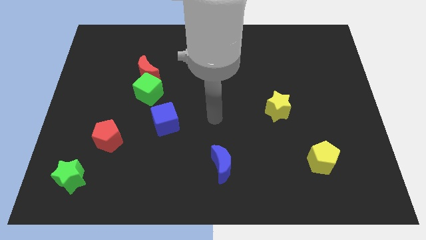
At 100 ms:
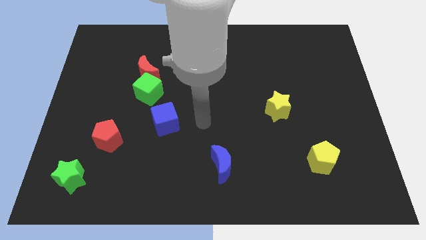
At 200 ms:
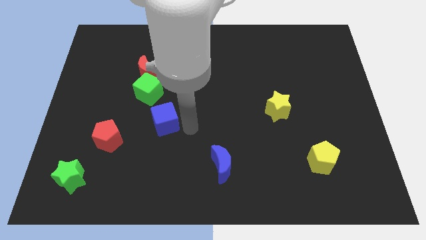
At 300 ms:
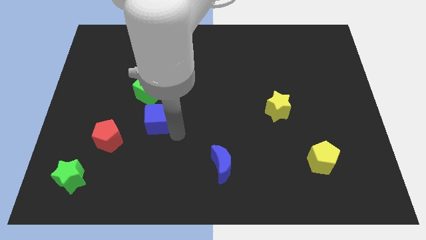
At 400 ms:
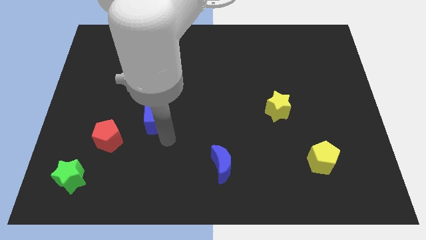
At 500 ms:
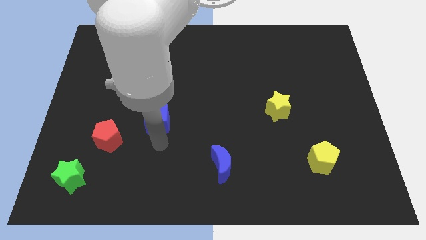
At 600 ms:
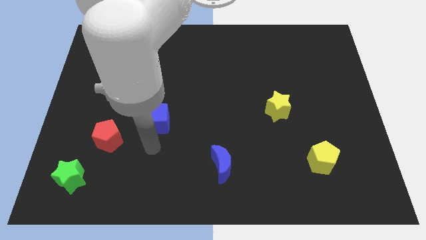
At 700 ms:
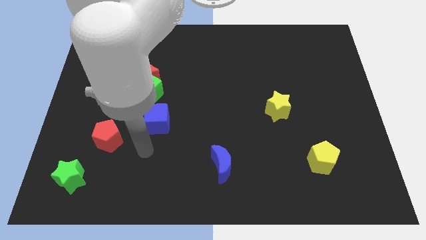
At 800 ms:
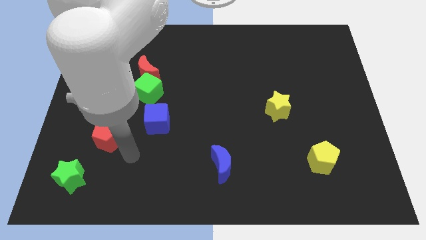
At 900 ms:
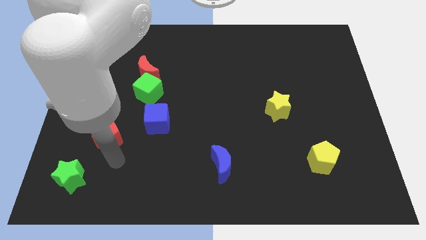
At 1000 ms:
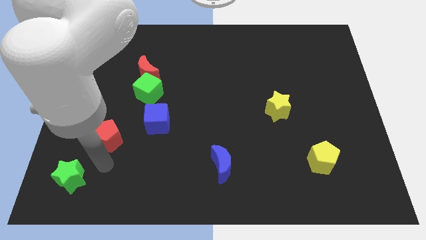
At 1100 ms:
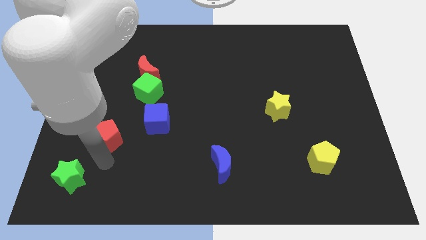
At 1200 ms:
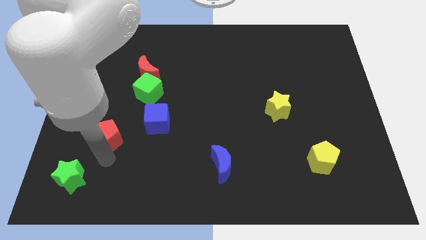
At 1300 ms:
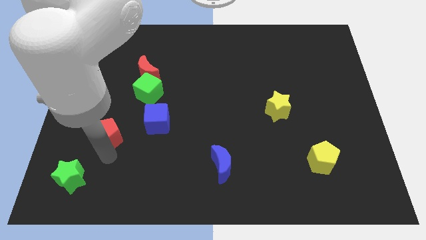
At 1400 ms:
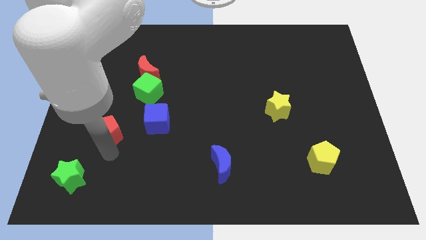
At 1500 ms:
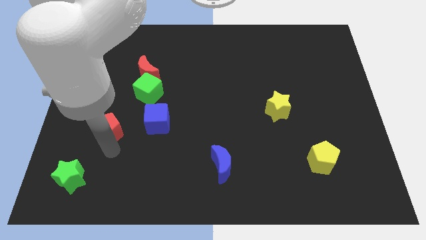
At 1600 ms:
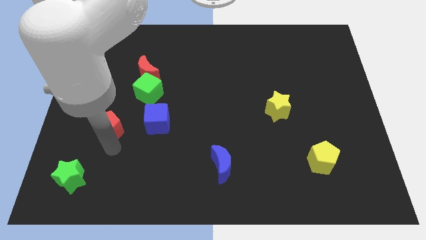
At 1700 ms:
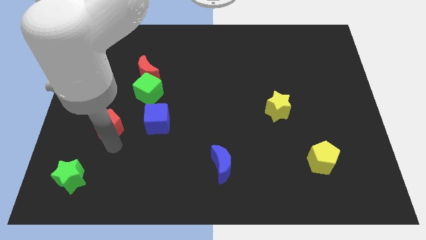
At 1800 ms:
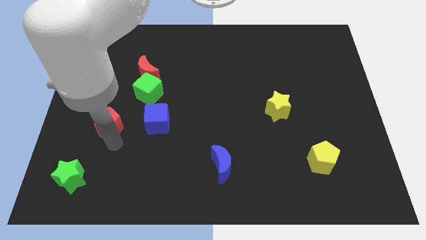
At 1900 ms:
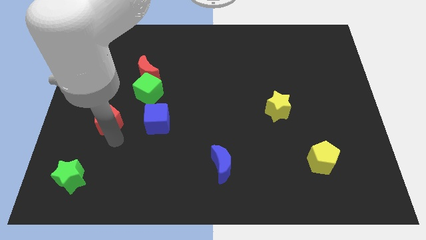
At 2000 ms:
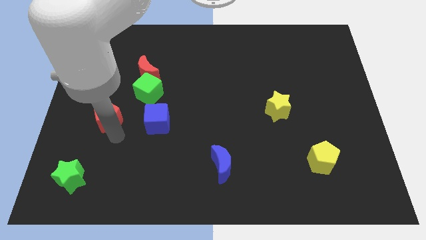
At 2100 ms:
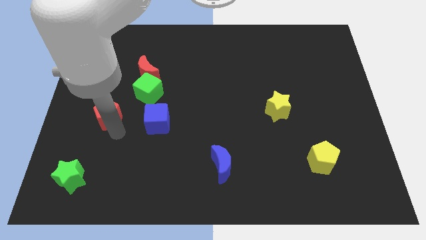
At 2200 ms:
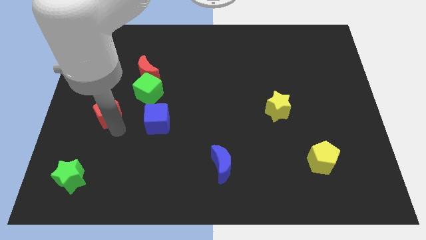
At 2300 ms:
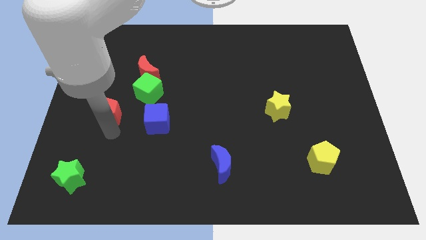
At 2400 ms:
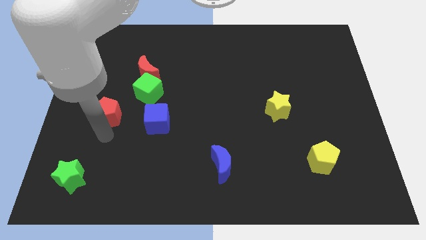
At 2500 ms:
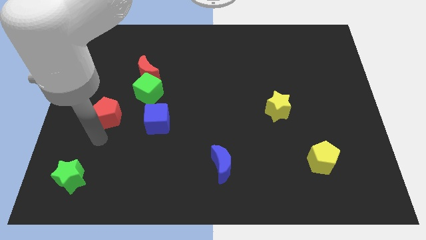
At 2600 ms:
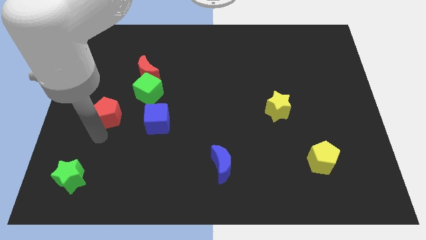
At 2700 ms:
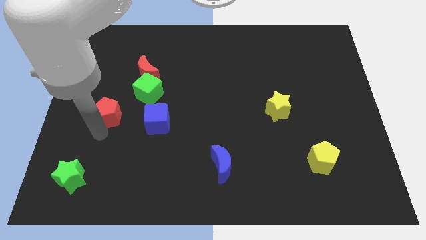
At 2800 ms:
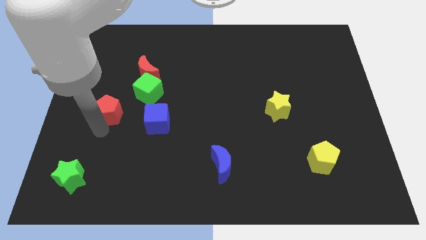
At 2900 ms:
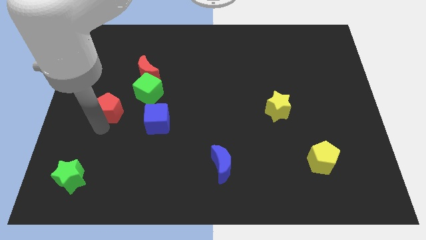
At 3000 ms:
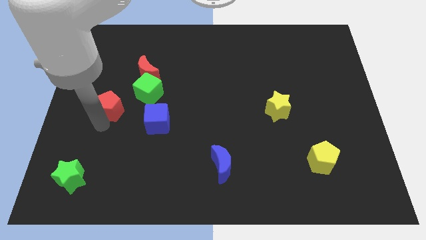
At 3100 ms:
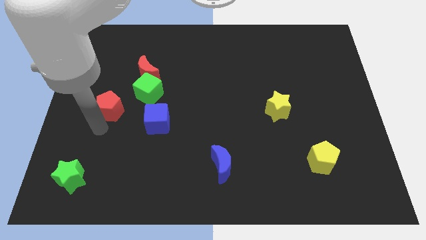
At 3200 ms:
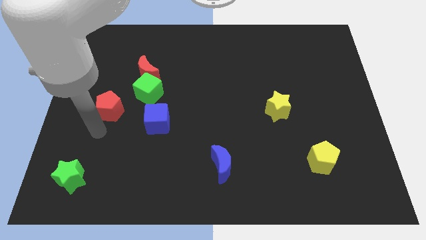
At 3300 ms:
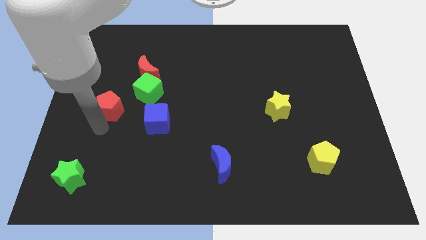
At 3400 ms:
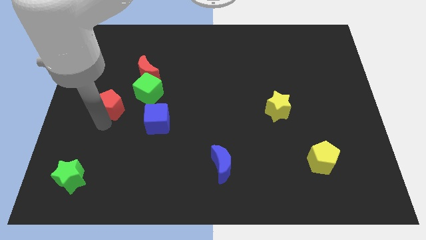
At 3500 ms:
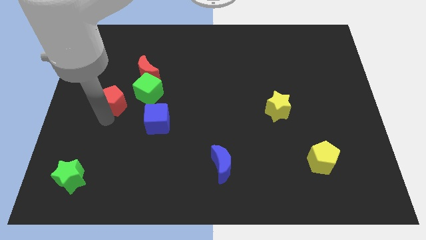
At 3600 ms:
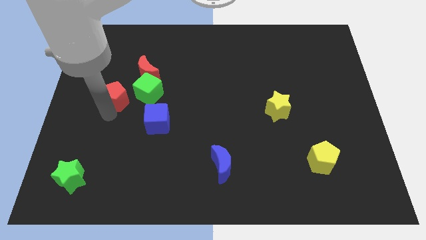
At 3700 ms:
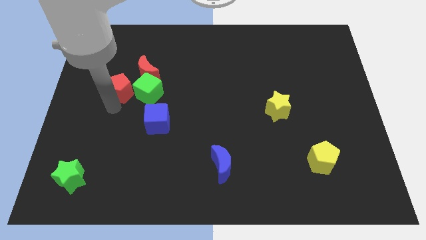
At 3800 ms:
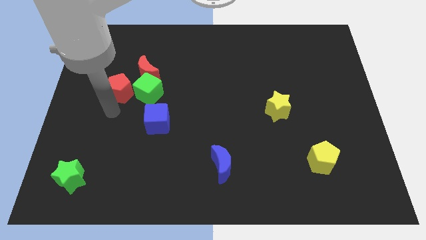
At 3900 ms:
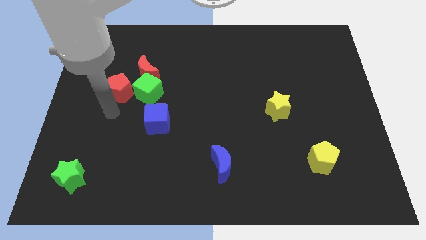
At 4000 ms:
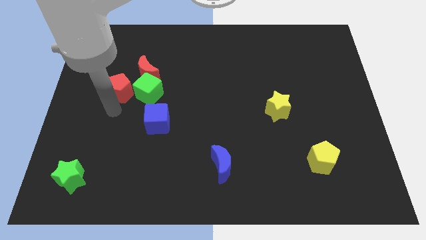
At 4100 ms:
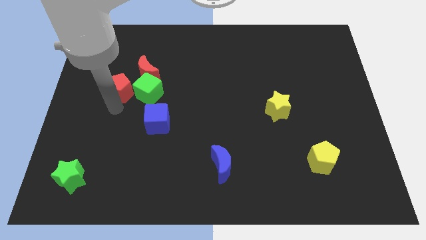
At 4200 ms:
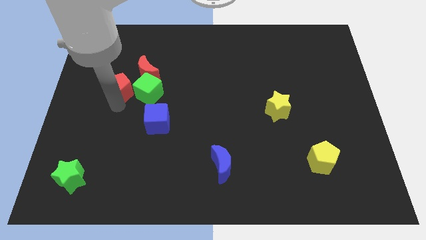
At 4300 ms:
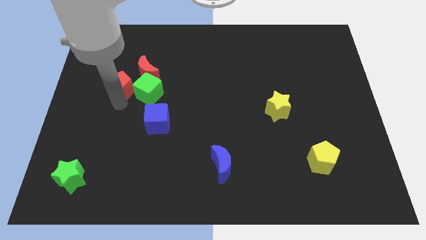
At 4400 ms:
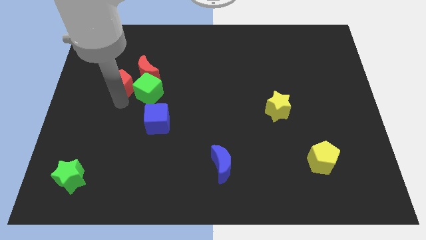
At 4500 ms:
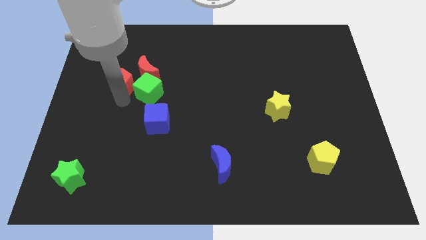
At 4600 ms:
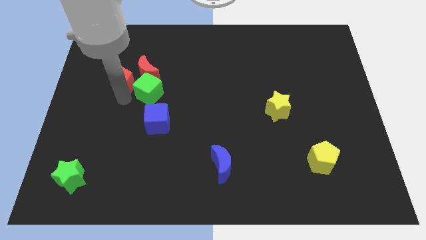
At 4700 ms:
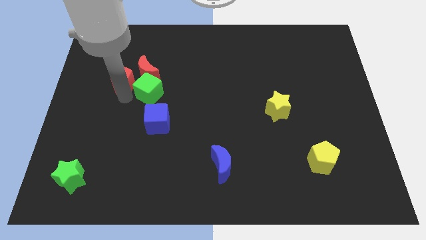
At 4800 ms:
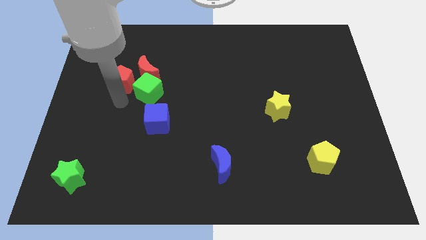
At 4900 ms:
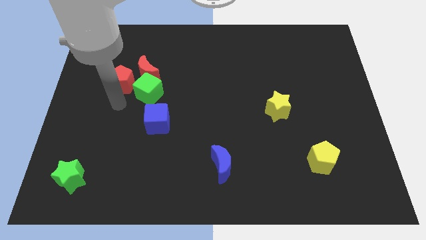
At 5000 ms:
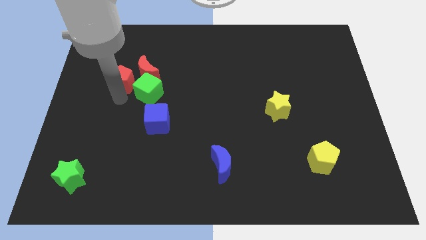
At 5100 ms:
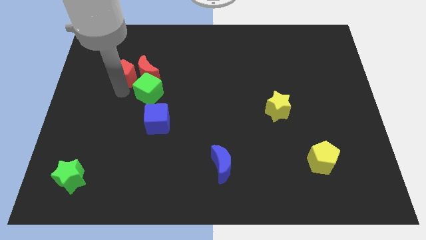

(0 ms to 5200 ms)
slide the red pentagon to the top left of the red moon

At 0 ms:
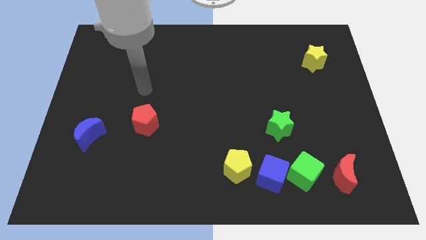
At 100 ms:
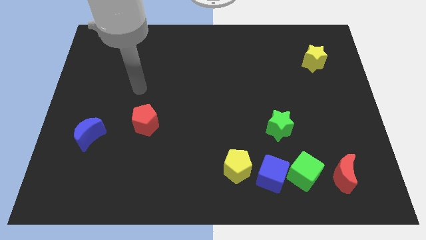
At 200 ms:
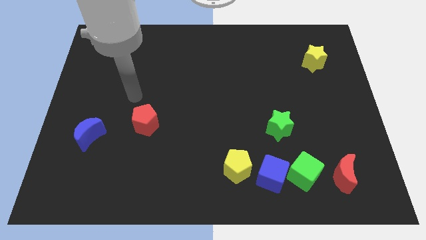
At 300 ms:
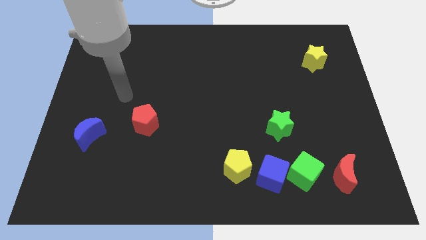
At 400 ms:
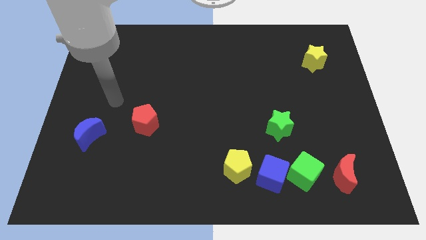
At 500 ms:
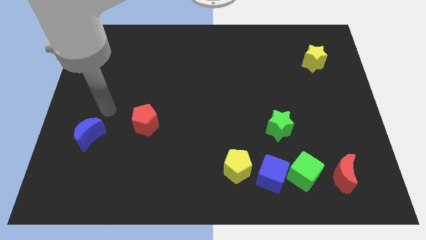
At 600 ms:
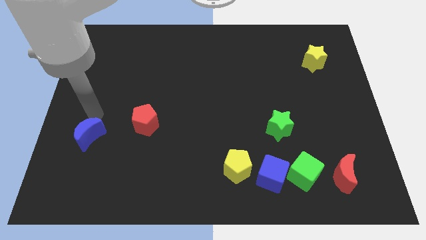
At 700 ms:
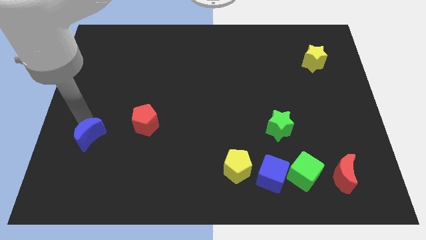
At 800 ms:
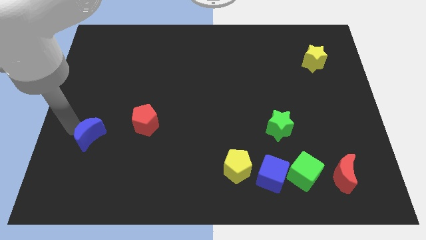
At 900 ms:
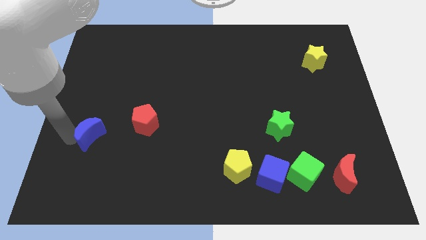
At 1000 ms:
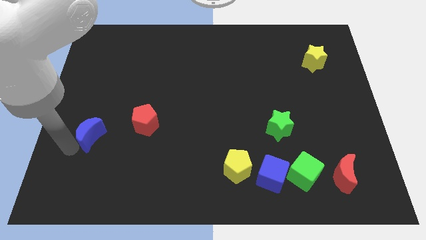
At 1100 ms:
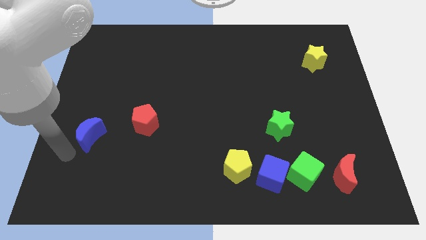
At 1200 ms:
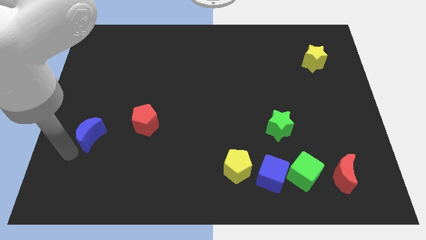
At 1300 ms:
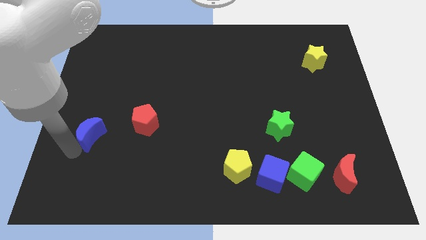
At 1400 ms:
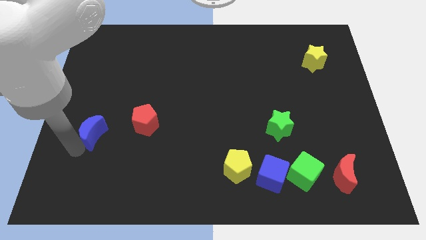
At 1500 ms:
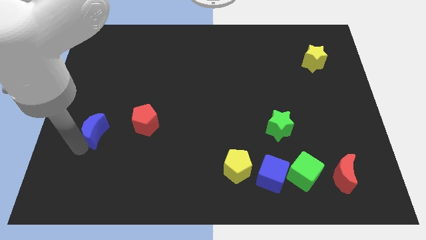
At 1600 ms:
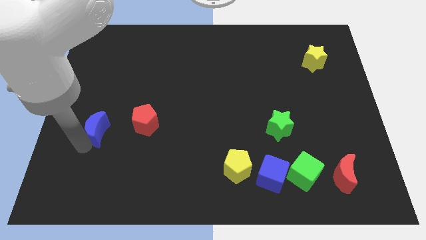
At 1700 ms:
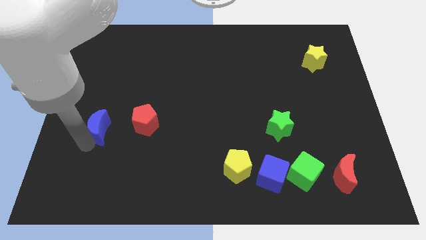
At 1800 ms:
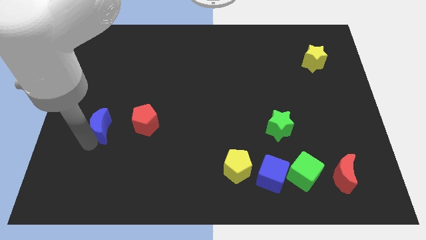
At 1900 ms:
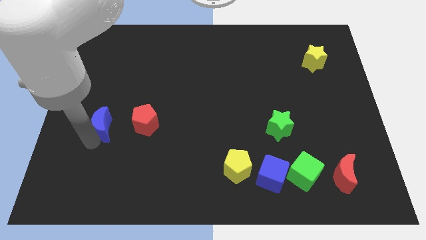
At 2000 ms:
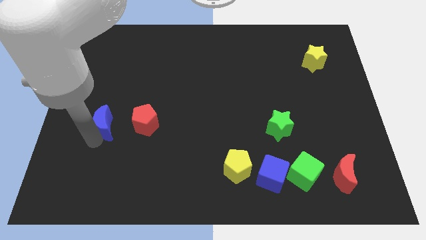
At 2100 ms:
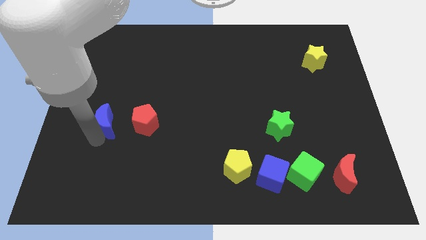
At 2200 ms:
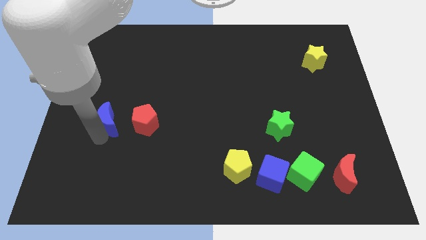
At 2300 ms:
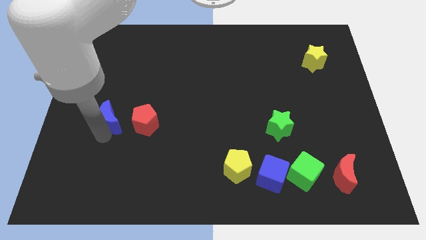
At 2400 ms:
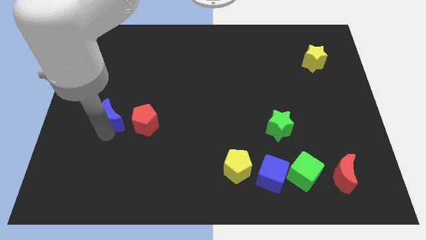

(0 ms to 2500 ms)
slide the blue moon to the top left side of the red pentagon
